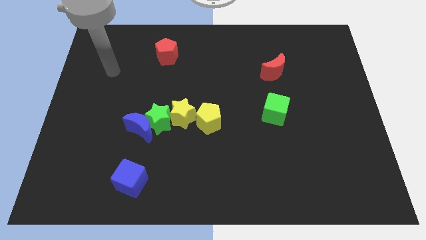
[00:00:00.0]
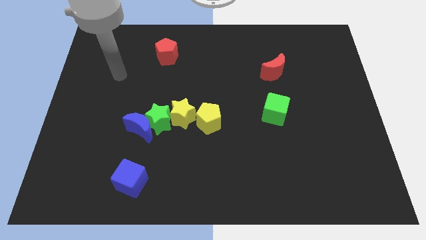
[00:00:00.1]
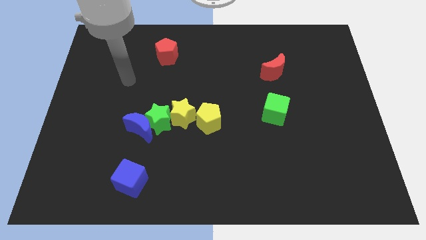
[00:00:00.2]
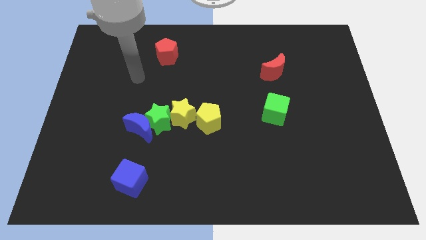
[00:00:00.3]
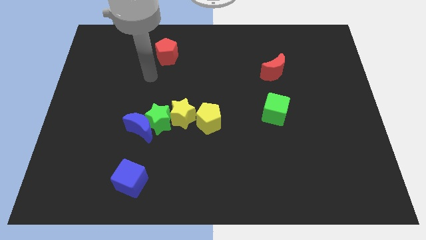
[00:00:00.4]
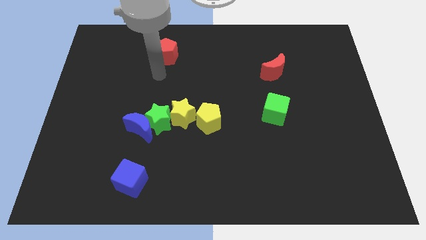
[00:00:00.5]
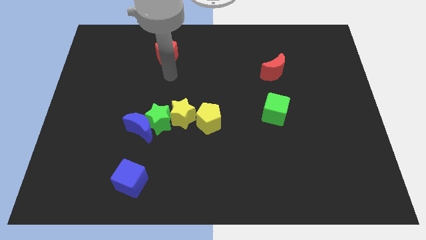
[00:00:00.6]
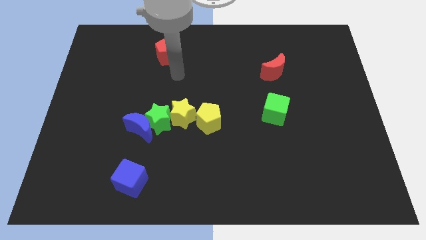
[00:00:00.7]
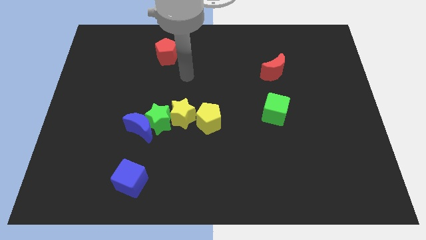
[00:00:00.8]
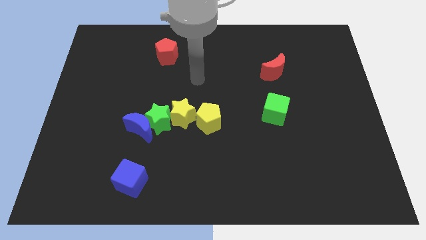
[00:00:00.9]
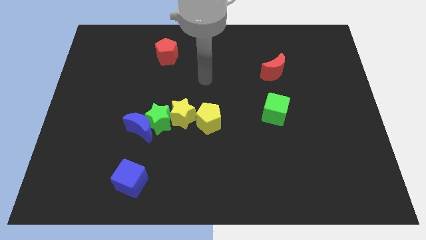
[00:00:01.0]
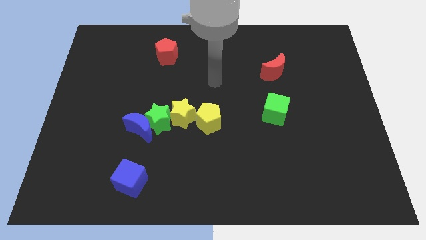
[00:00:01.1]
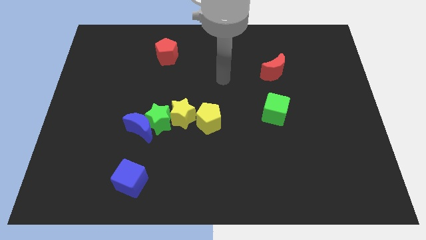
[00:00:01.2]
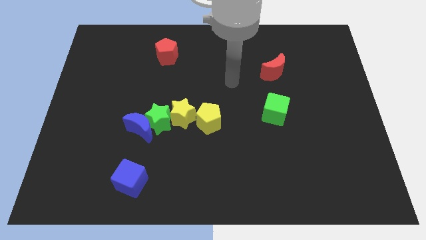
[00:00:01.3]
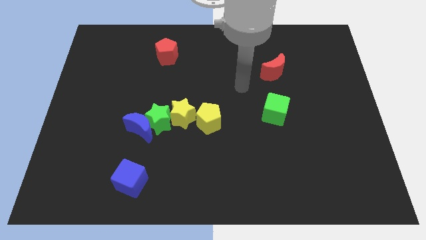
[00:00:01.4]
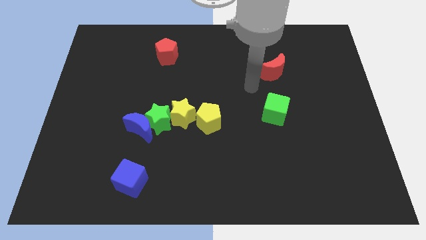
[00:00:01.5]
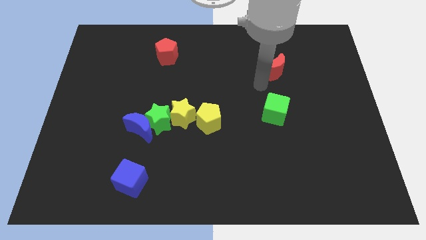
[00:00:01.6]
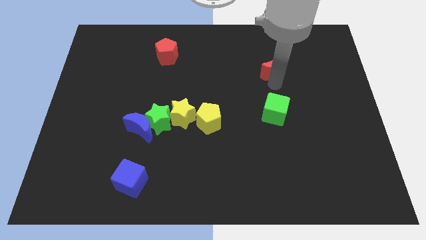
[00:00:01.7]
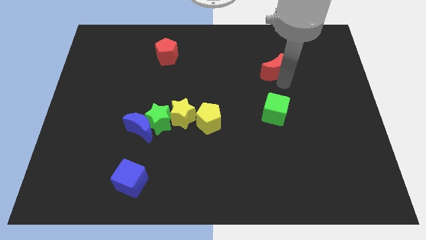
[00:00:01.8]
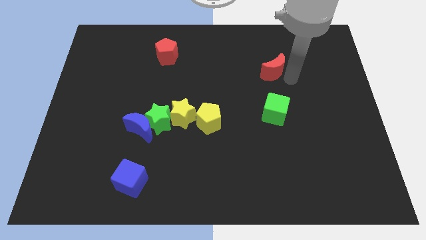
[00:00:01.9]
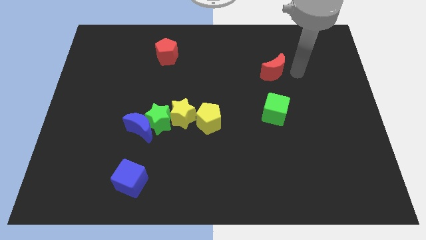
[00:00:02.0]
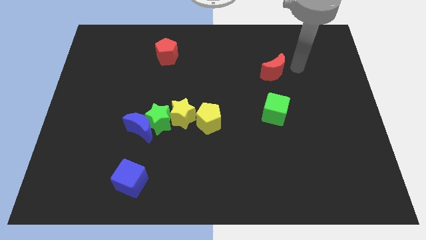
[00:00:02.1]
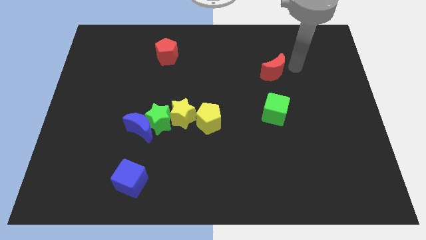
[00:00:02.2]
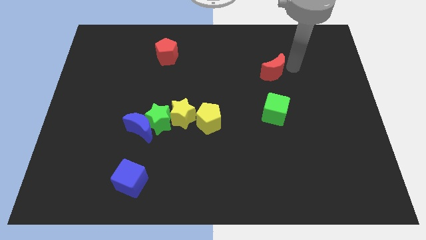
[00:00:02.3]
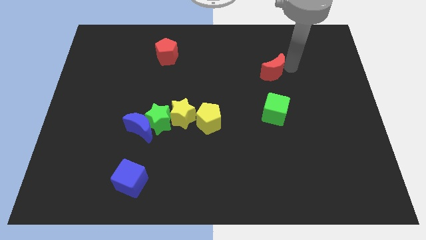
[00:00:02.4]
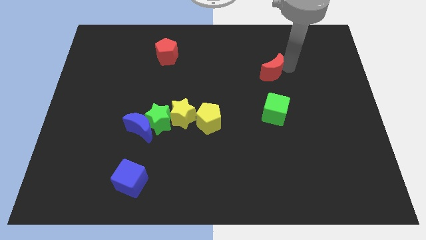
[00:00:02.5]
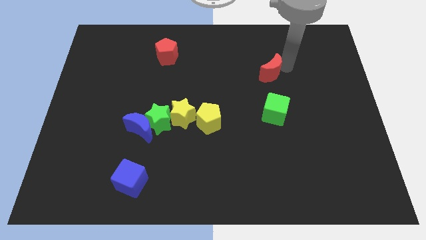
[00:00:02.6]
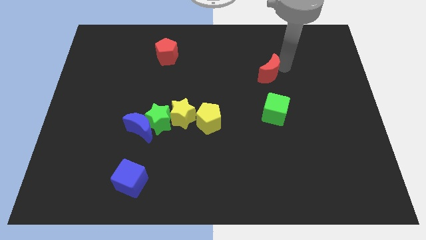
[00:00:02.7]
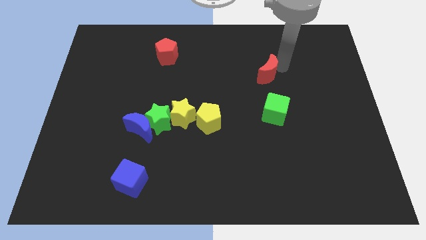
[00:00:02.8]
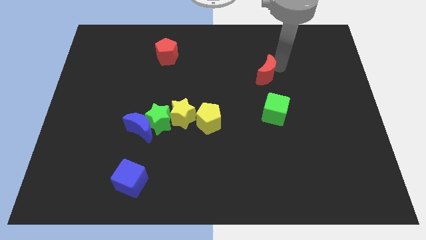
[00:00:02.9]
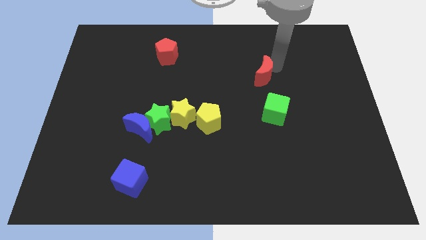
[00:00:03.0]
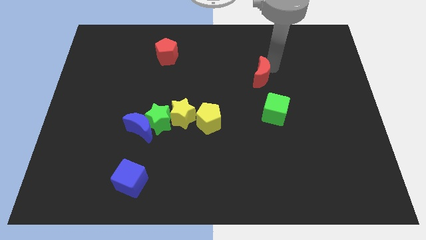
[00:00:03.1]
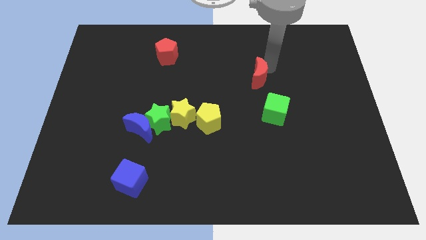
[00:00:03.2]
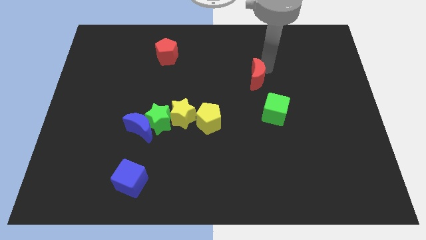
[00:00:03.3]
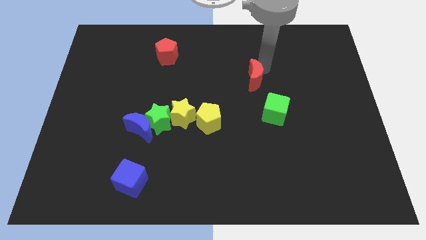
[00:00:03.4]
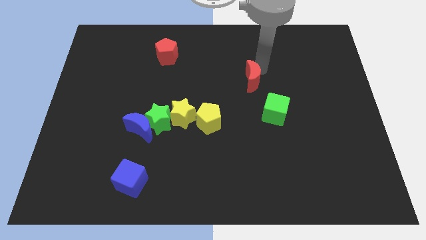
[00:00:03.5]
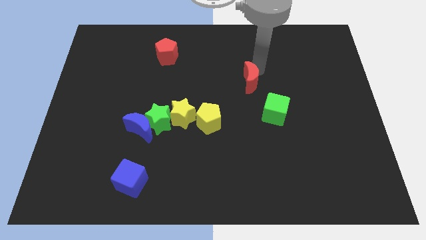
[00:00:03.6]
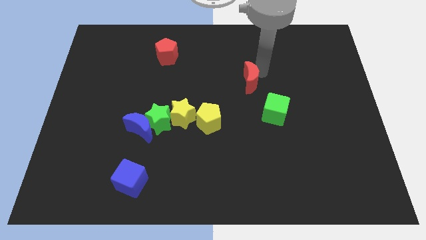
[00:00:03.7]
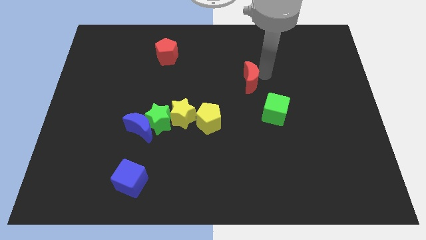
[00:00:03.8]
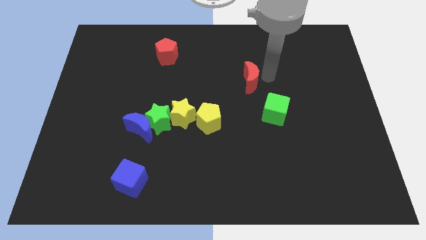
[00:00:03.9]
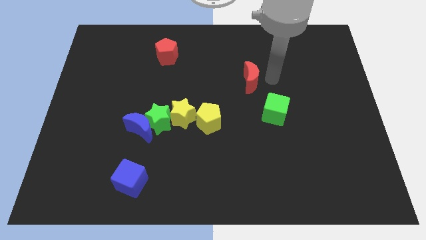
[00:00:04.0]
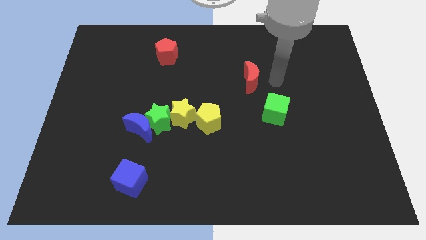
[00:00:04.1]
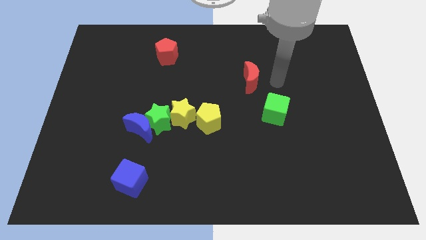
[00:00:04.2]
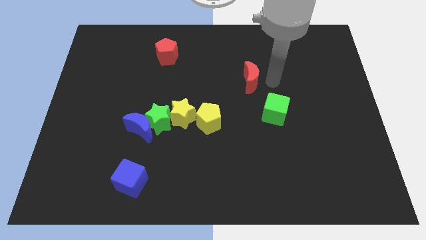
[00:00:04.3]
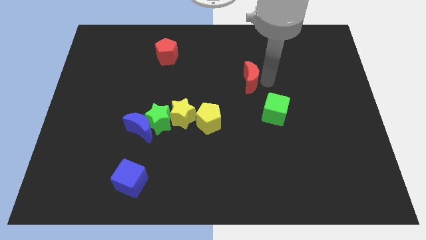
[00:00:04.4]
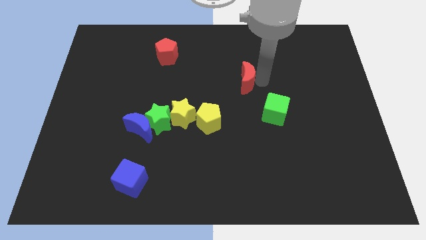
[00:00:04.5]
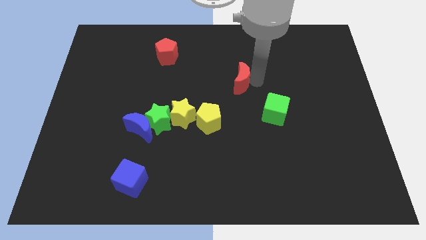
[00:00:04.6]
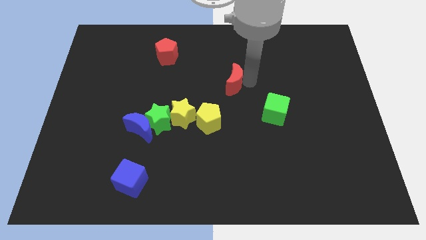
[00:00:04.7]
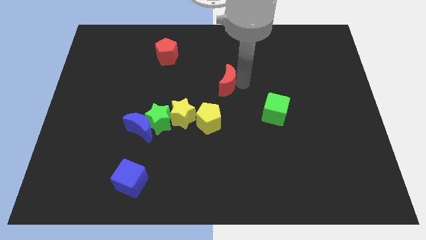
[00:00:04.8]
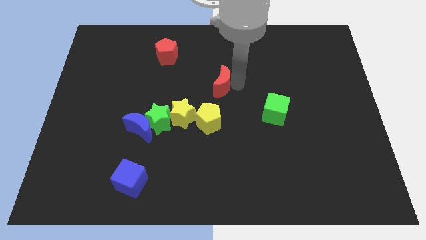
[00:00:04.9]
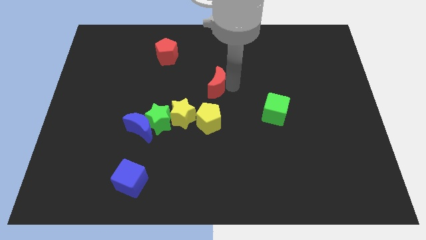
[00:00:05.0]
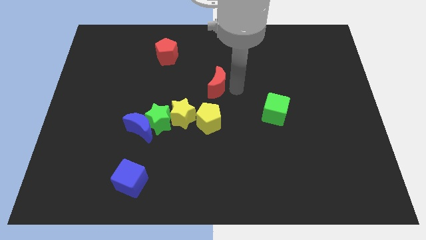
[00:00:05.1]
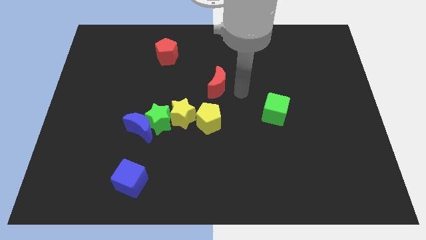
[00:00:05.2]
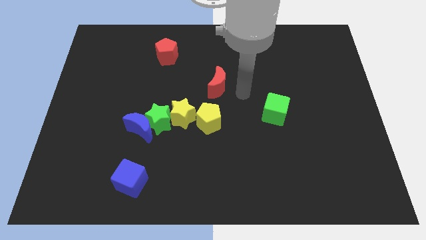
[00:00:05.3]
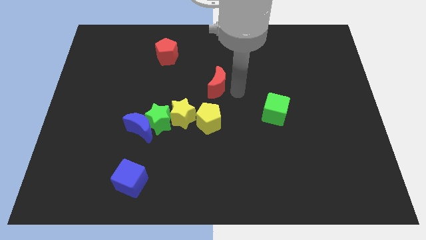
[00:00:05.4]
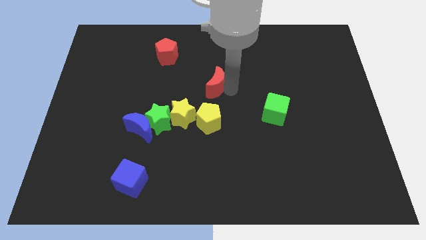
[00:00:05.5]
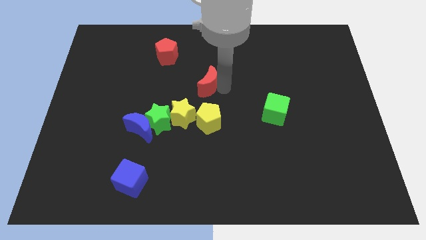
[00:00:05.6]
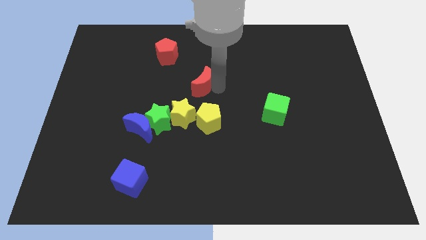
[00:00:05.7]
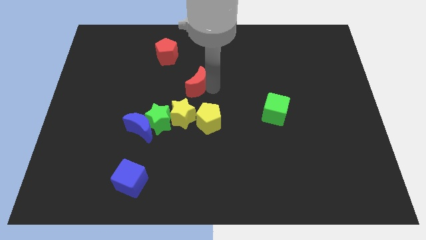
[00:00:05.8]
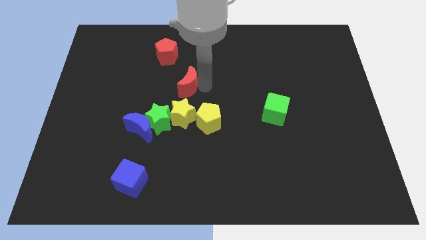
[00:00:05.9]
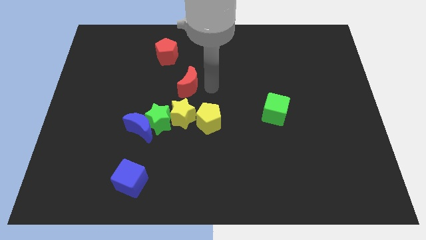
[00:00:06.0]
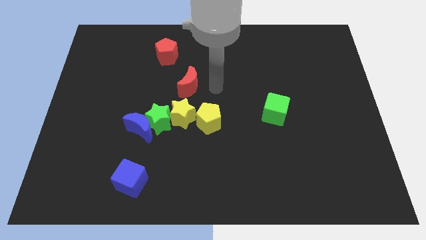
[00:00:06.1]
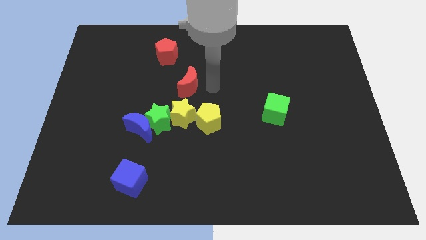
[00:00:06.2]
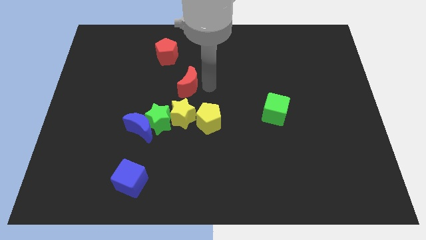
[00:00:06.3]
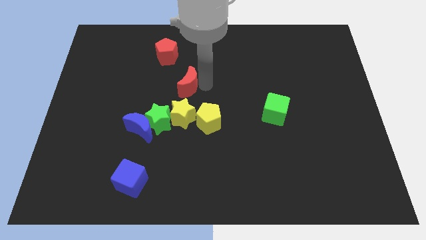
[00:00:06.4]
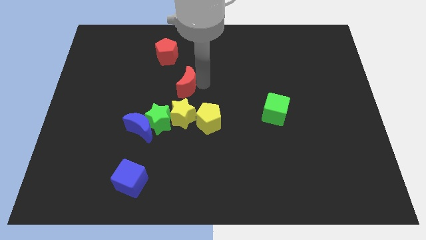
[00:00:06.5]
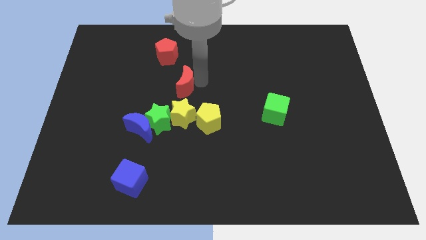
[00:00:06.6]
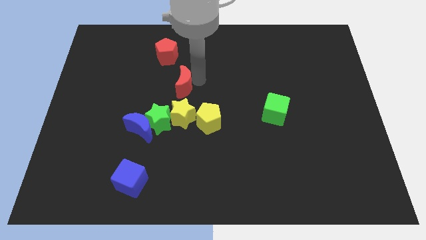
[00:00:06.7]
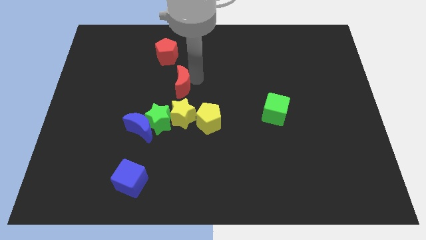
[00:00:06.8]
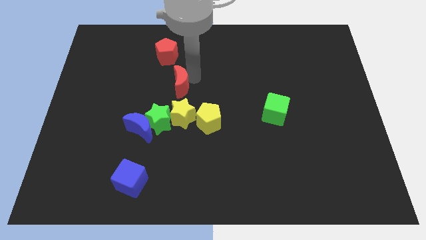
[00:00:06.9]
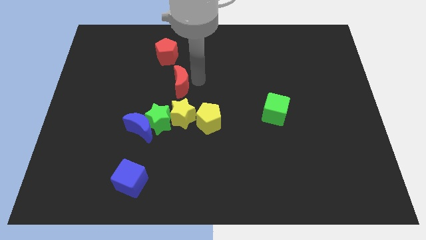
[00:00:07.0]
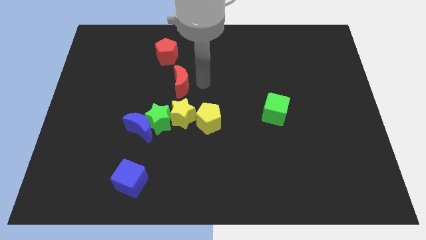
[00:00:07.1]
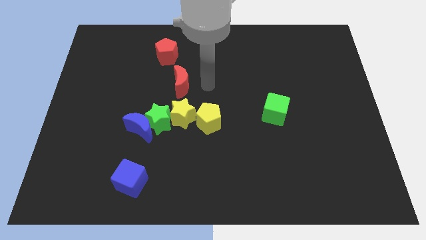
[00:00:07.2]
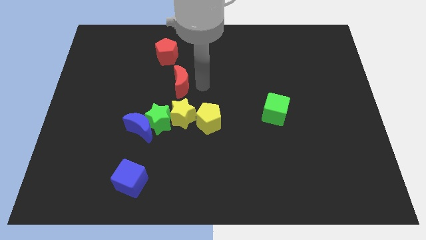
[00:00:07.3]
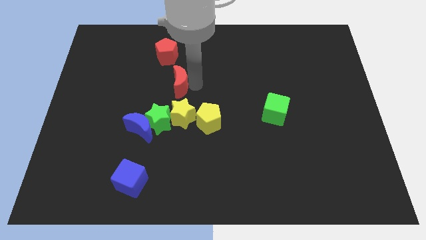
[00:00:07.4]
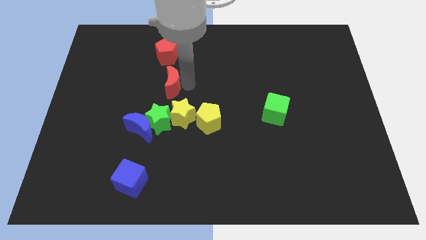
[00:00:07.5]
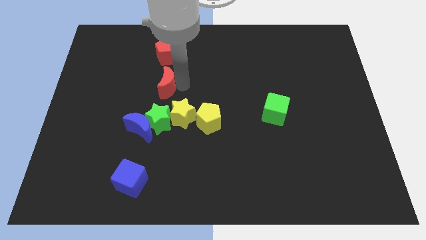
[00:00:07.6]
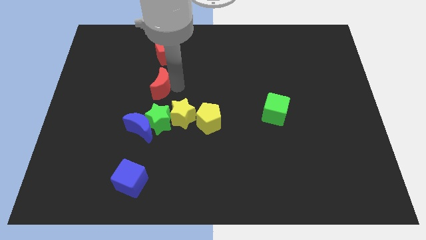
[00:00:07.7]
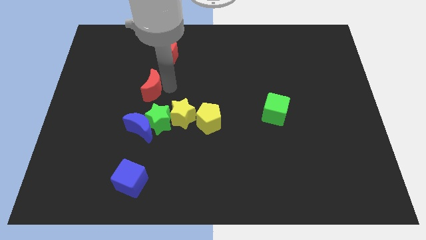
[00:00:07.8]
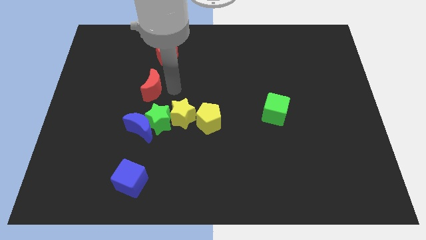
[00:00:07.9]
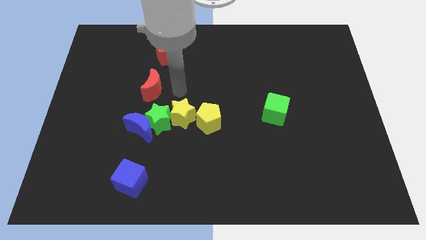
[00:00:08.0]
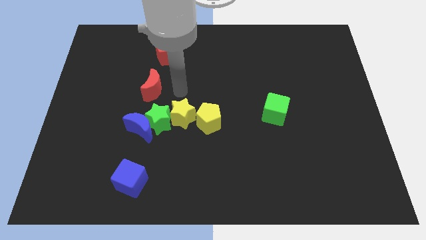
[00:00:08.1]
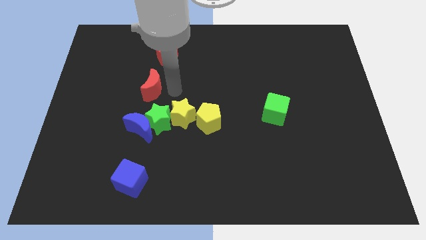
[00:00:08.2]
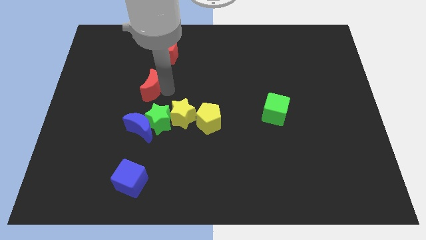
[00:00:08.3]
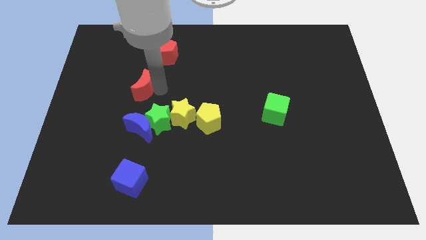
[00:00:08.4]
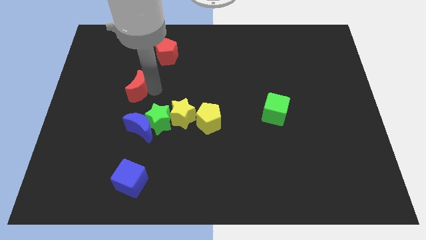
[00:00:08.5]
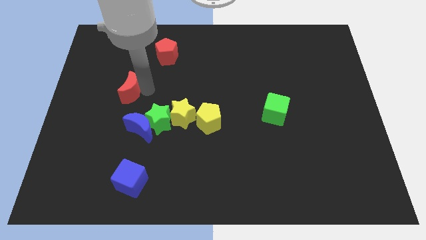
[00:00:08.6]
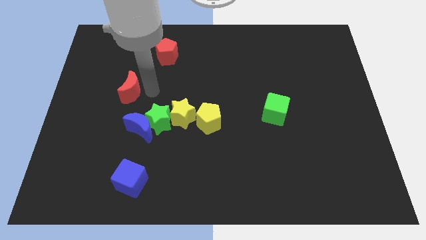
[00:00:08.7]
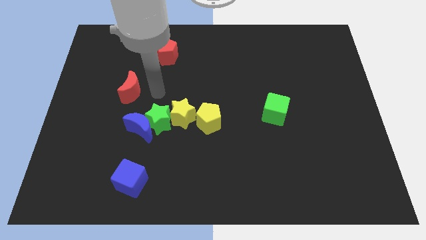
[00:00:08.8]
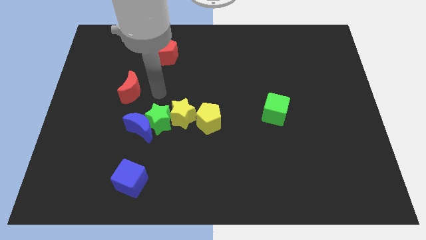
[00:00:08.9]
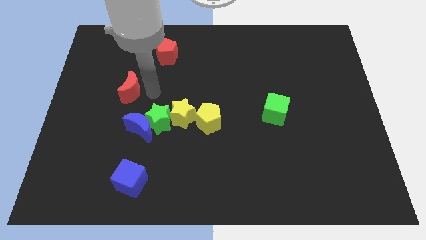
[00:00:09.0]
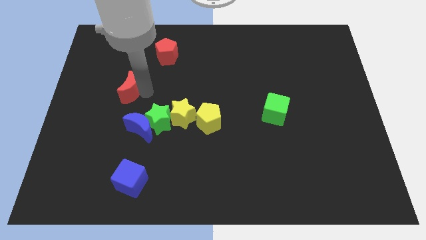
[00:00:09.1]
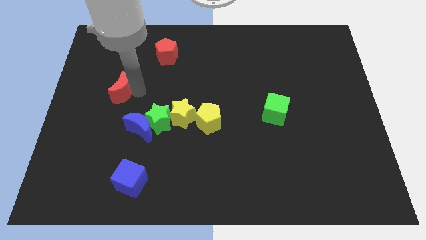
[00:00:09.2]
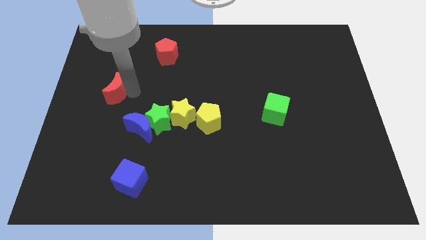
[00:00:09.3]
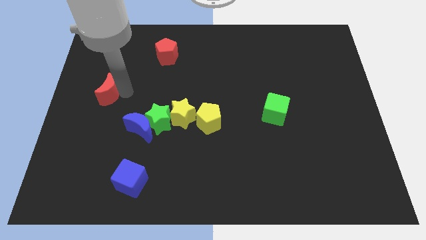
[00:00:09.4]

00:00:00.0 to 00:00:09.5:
slide the red moon to the left side
